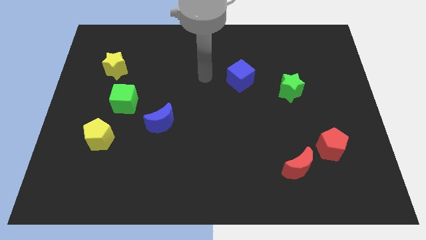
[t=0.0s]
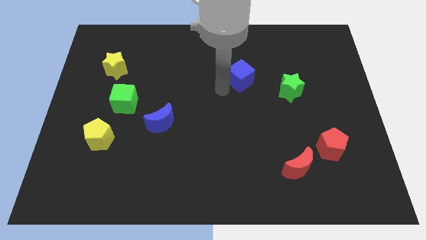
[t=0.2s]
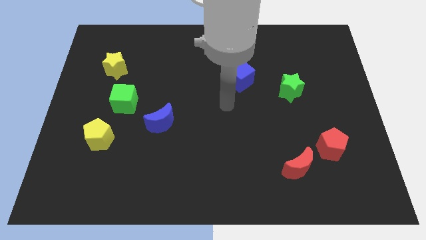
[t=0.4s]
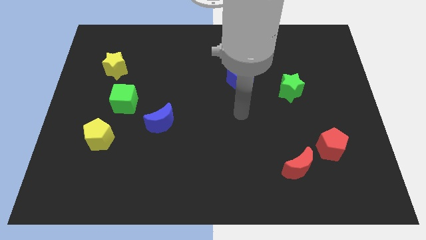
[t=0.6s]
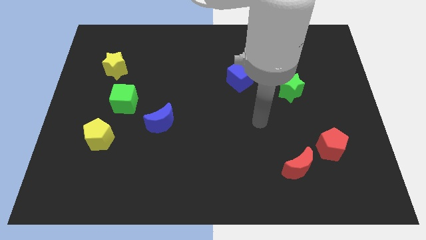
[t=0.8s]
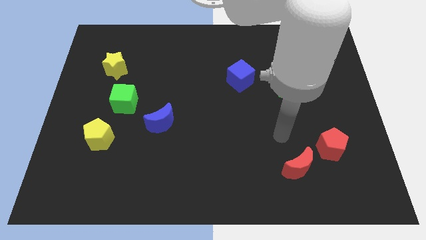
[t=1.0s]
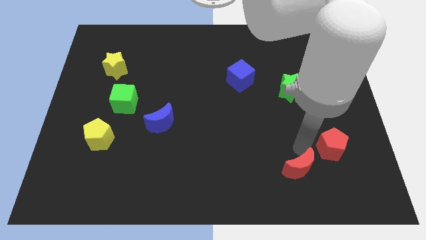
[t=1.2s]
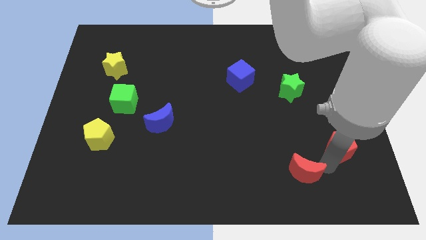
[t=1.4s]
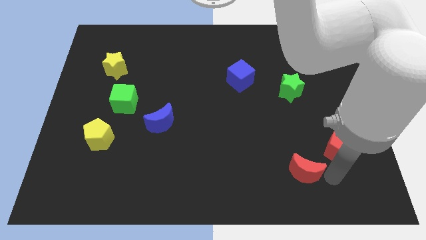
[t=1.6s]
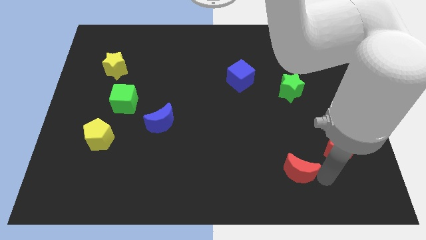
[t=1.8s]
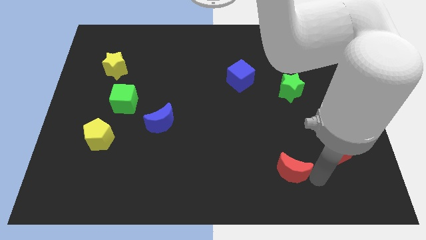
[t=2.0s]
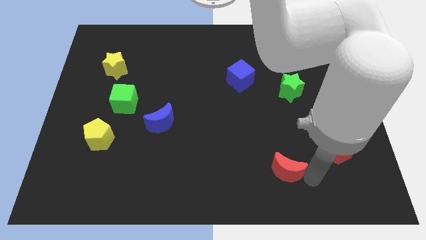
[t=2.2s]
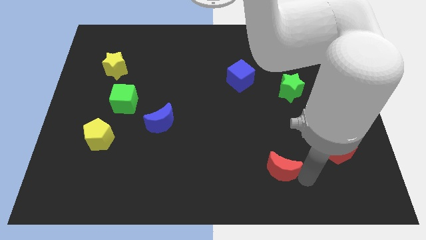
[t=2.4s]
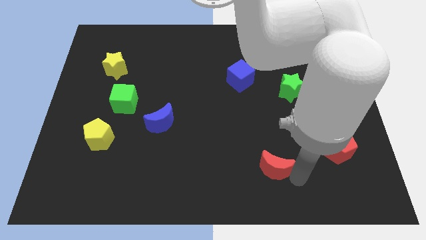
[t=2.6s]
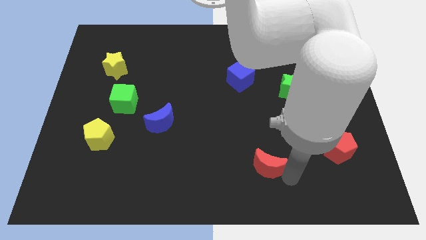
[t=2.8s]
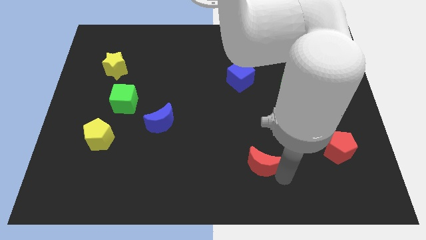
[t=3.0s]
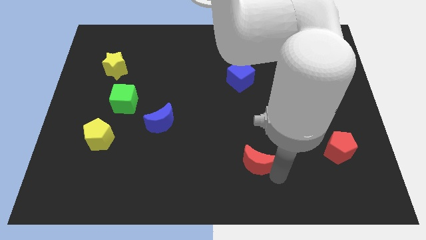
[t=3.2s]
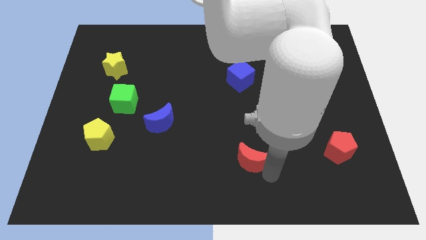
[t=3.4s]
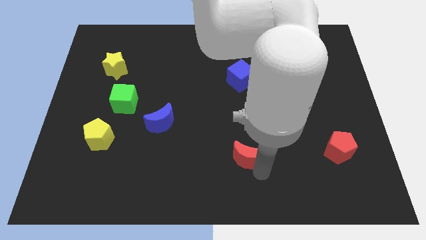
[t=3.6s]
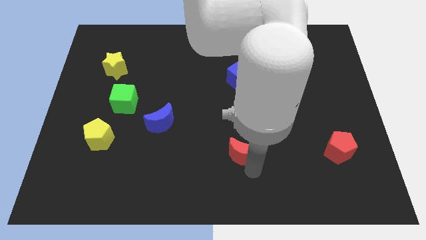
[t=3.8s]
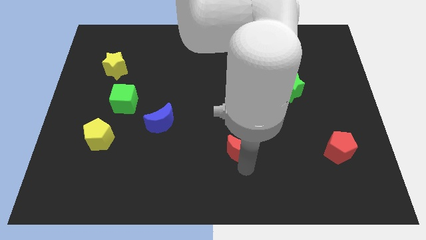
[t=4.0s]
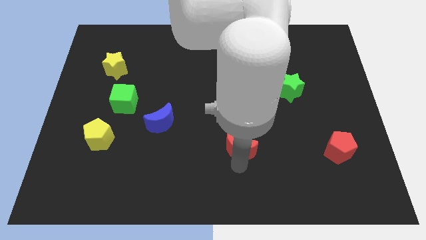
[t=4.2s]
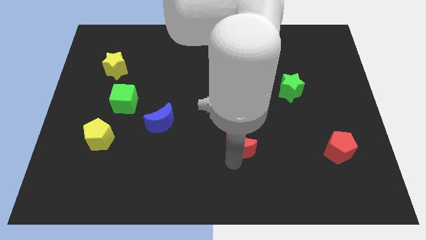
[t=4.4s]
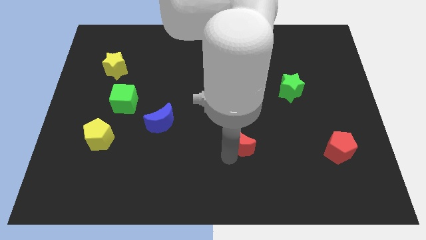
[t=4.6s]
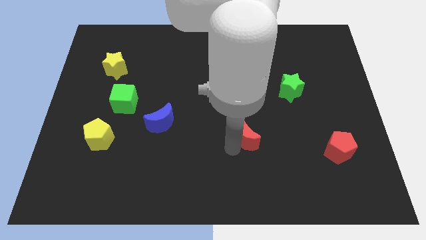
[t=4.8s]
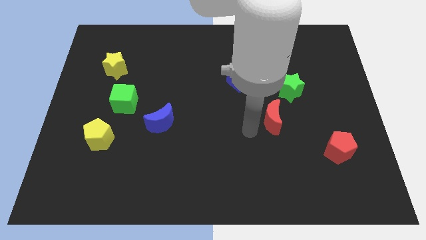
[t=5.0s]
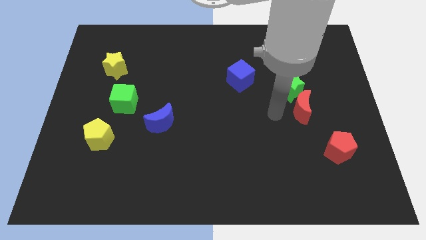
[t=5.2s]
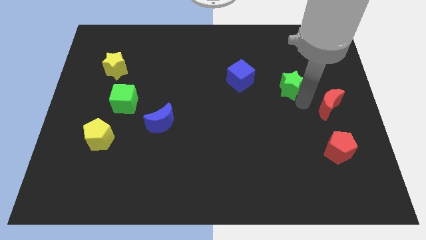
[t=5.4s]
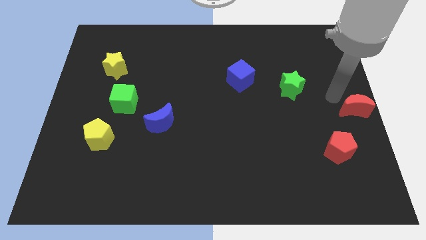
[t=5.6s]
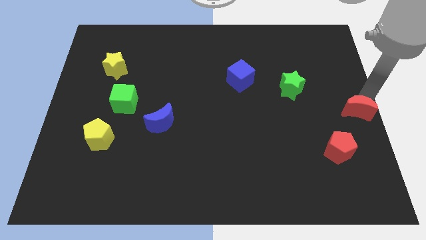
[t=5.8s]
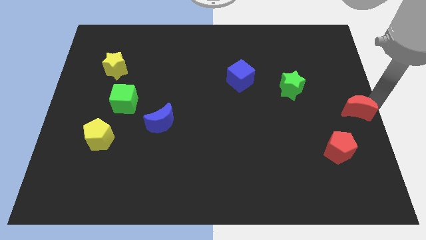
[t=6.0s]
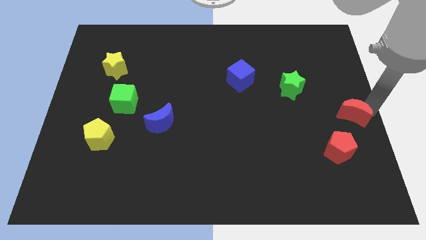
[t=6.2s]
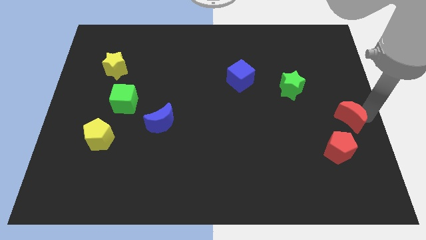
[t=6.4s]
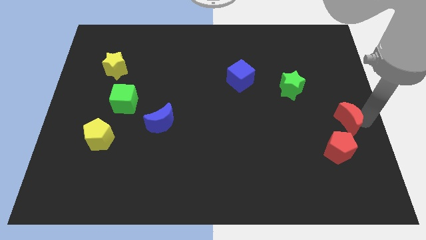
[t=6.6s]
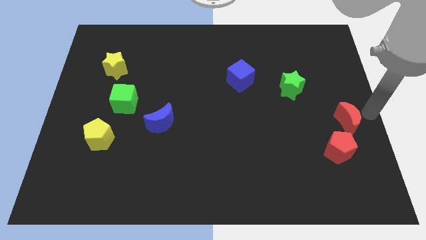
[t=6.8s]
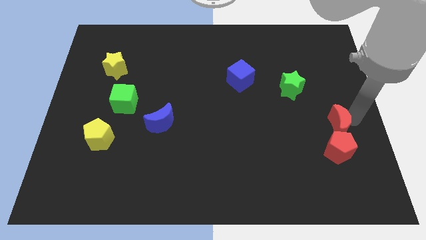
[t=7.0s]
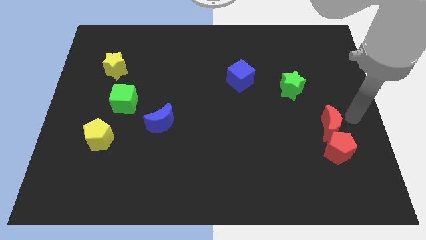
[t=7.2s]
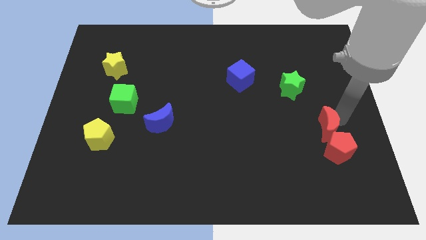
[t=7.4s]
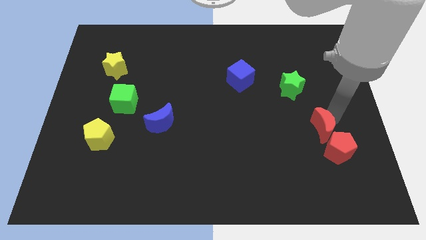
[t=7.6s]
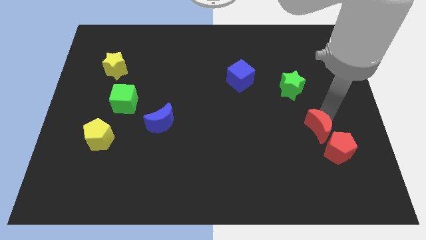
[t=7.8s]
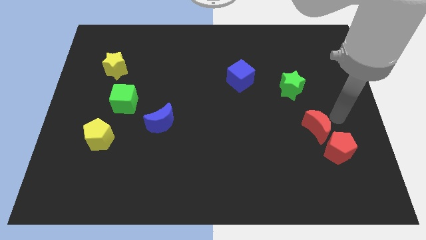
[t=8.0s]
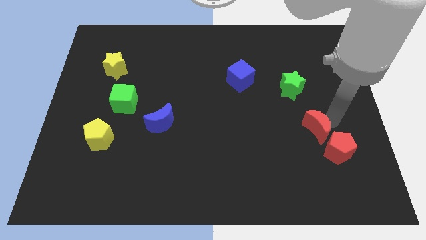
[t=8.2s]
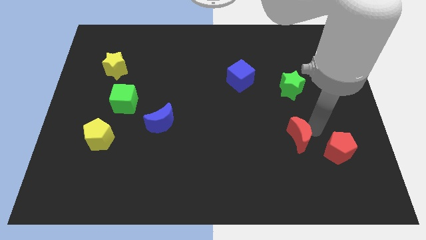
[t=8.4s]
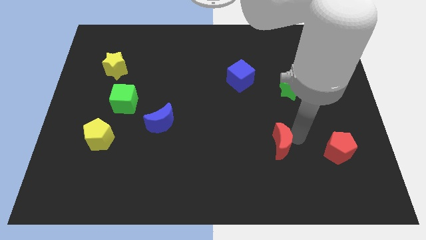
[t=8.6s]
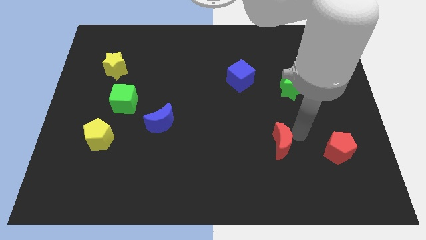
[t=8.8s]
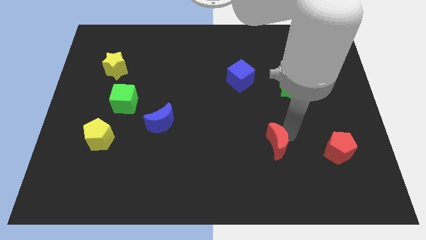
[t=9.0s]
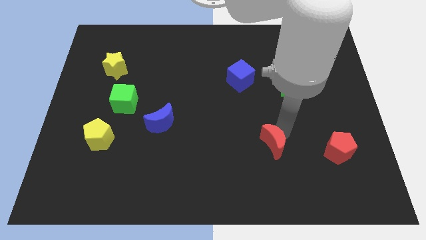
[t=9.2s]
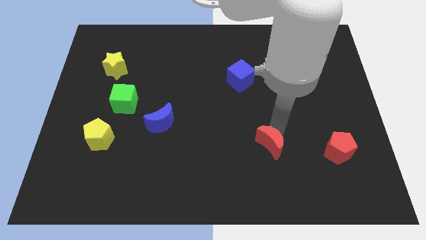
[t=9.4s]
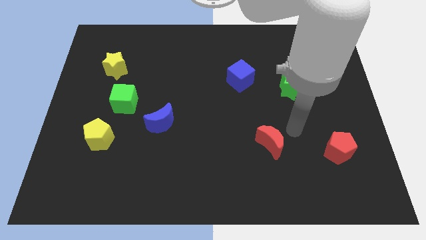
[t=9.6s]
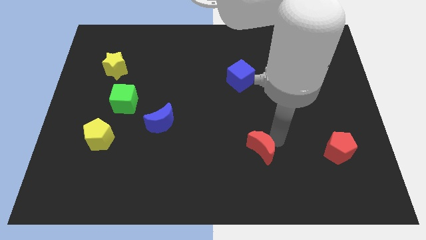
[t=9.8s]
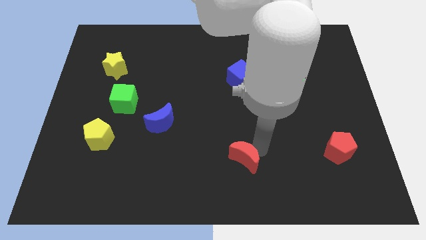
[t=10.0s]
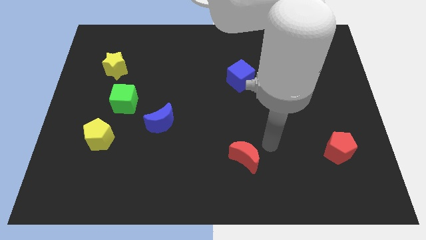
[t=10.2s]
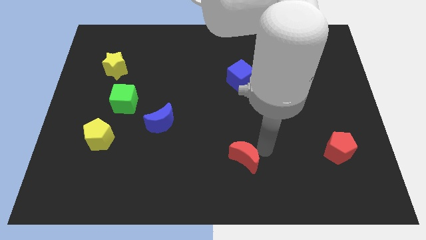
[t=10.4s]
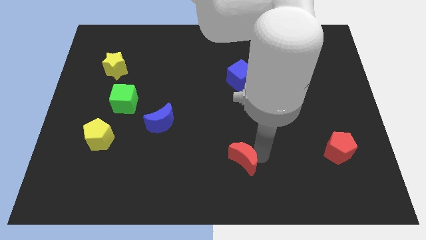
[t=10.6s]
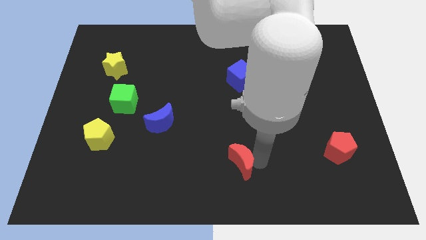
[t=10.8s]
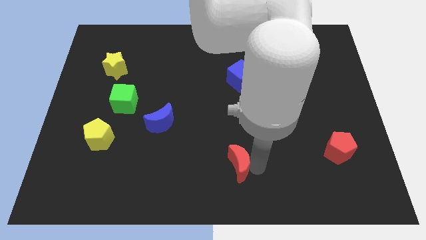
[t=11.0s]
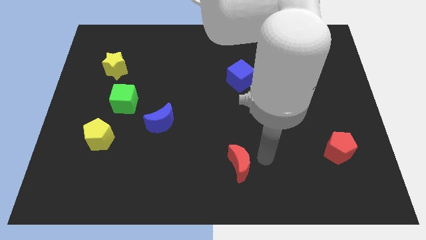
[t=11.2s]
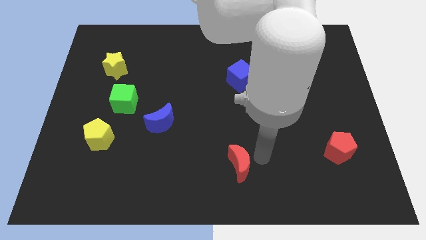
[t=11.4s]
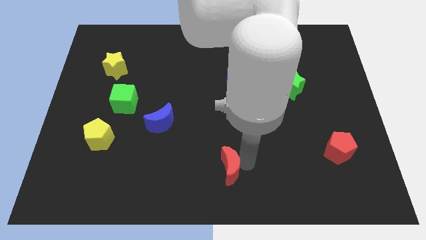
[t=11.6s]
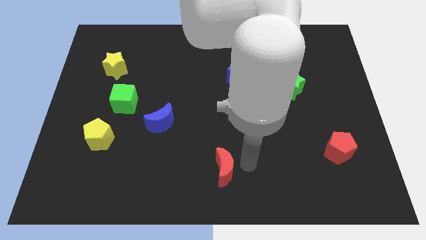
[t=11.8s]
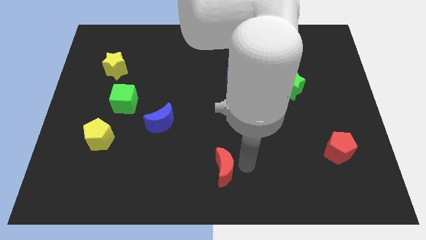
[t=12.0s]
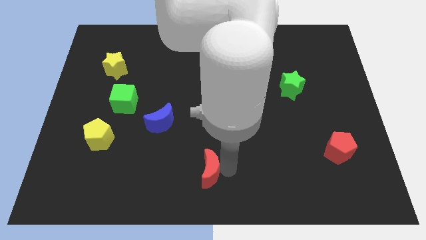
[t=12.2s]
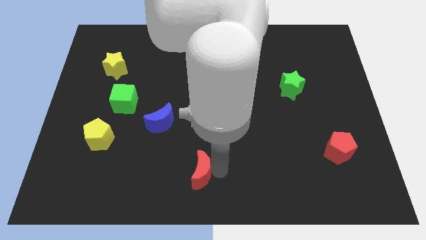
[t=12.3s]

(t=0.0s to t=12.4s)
slide the red moon left

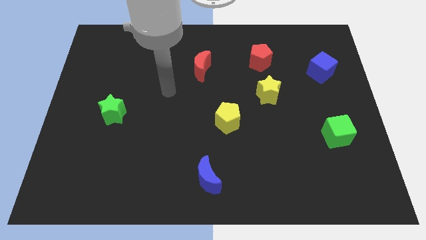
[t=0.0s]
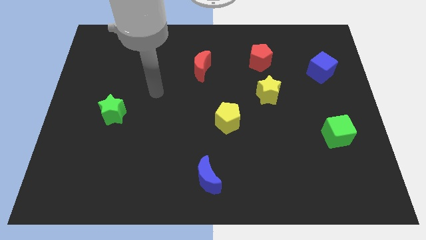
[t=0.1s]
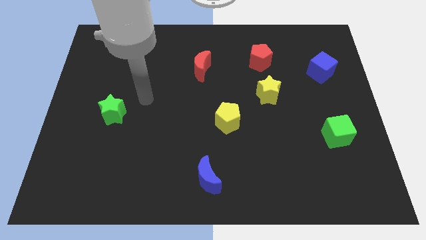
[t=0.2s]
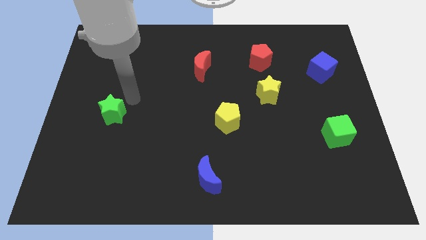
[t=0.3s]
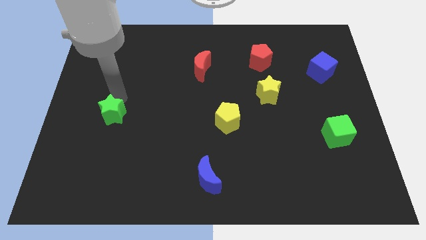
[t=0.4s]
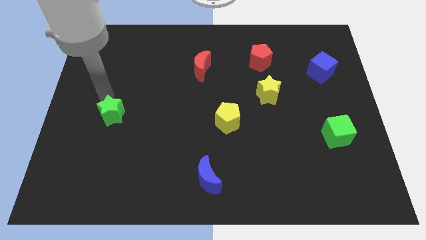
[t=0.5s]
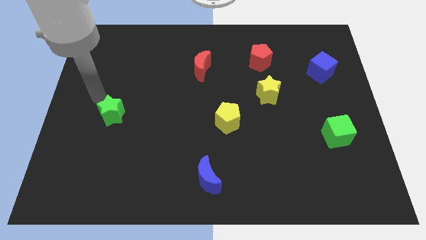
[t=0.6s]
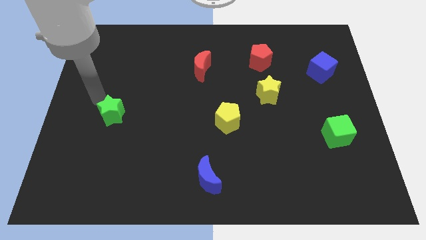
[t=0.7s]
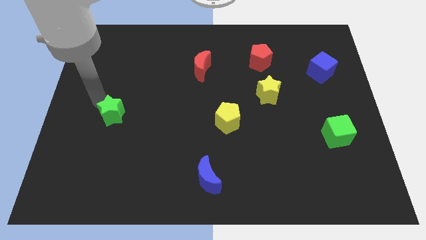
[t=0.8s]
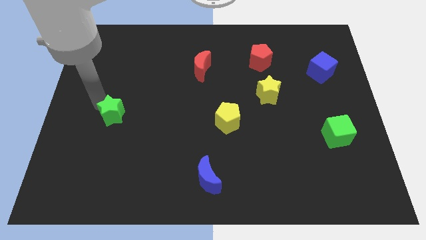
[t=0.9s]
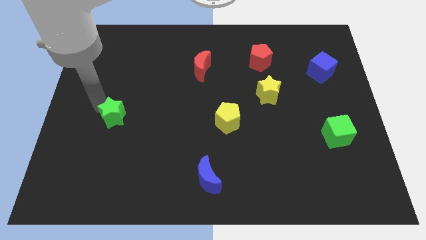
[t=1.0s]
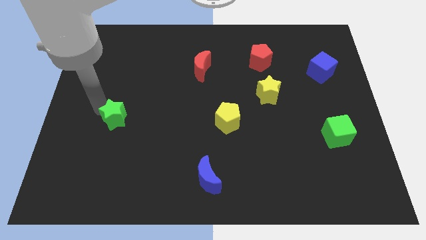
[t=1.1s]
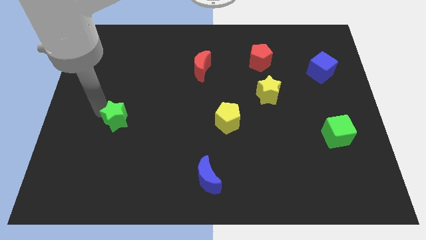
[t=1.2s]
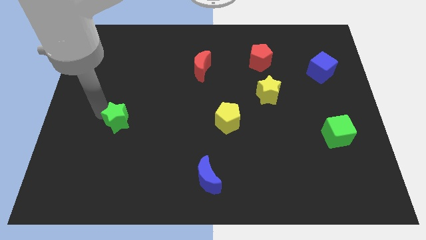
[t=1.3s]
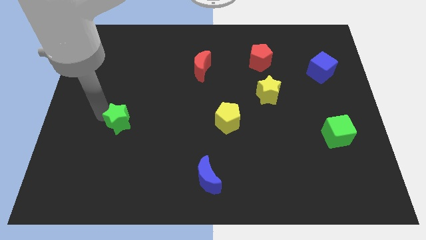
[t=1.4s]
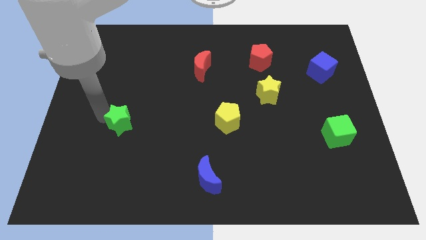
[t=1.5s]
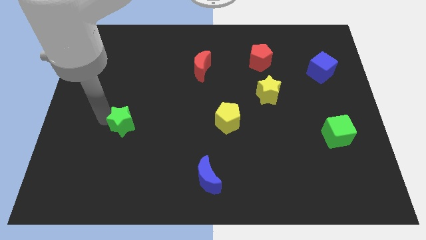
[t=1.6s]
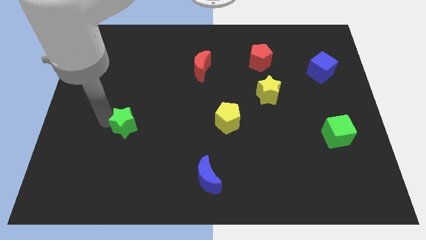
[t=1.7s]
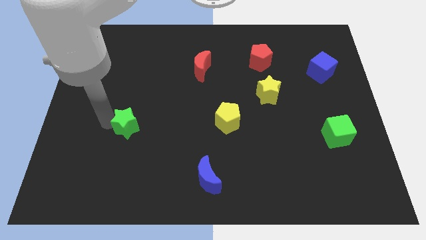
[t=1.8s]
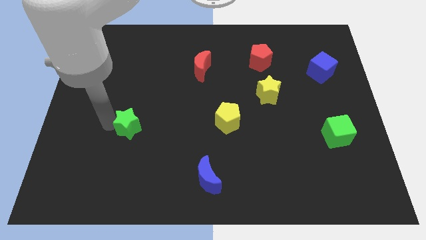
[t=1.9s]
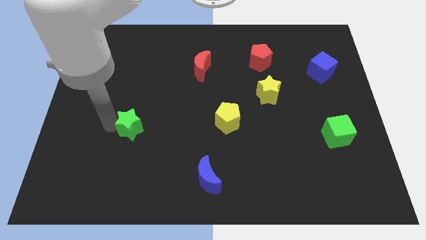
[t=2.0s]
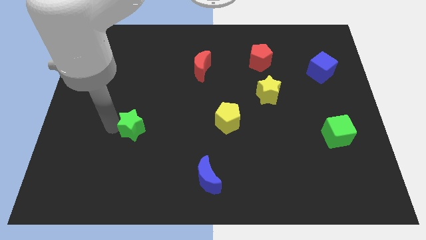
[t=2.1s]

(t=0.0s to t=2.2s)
push the green star downwards and to the right diagonally somewhat
